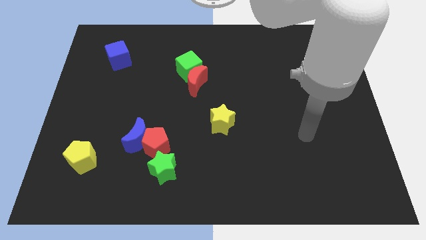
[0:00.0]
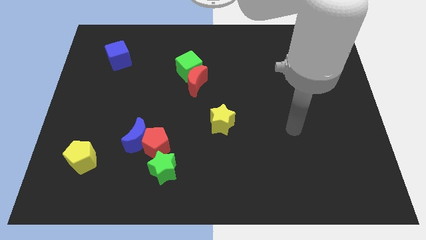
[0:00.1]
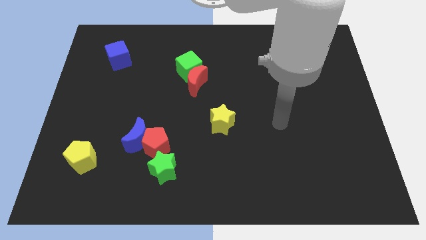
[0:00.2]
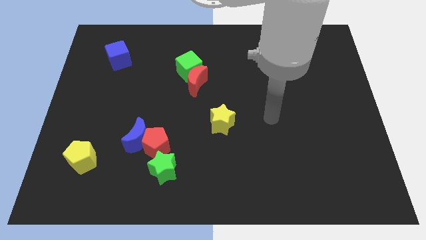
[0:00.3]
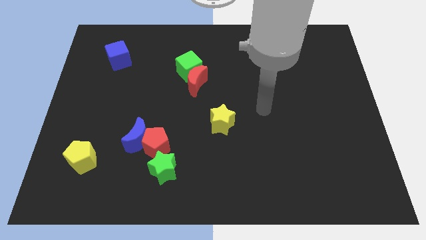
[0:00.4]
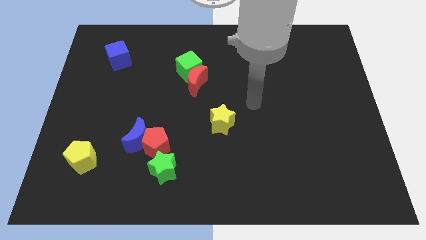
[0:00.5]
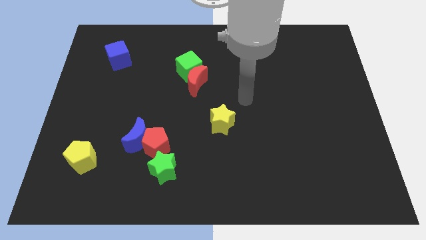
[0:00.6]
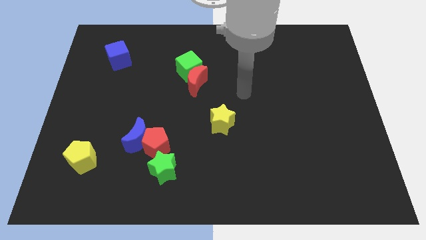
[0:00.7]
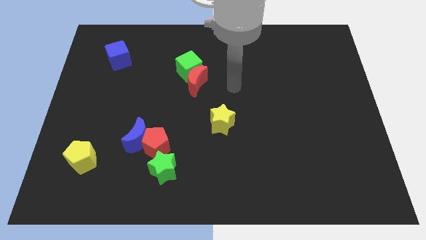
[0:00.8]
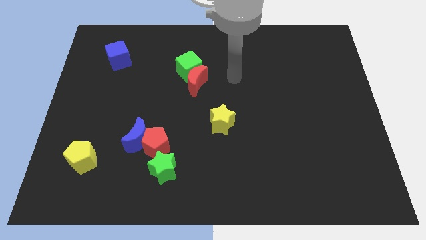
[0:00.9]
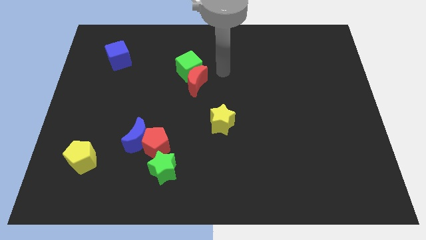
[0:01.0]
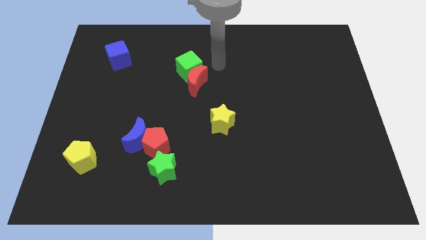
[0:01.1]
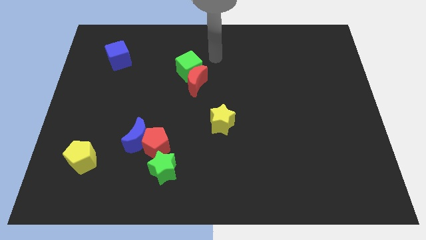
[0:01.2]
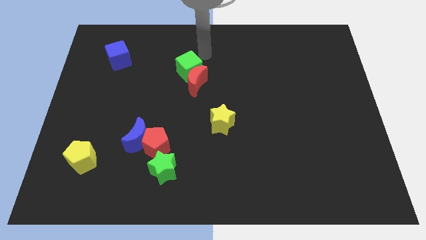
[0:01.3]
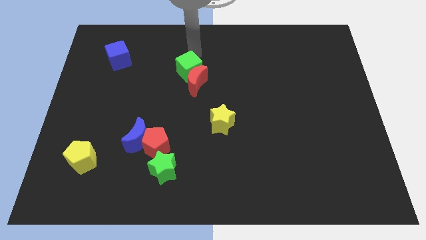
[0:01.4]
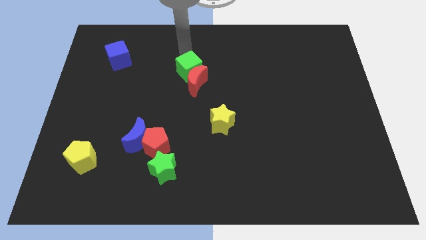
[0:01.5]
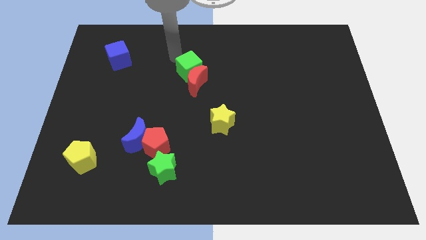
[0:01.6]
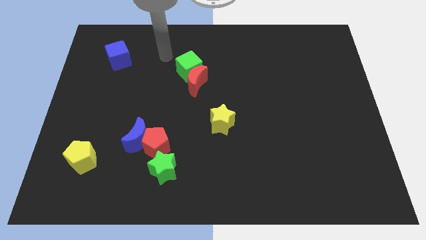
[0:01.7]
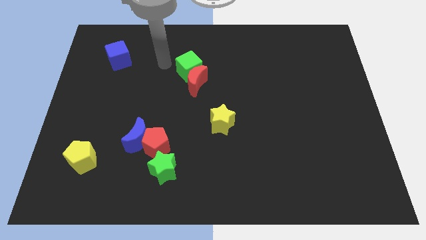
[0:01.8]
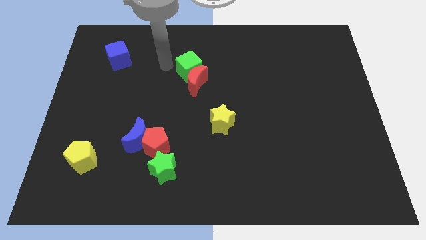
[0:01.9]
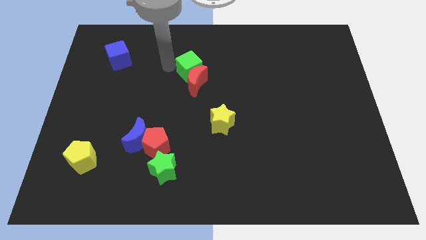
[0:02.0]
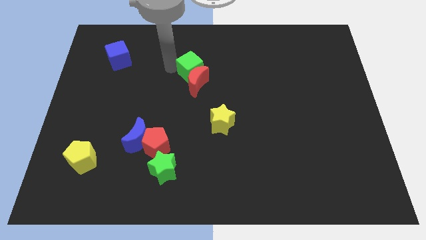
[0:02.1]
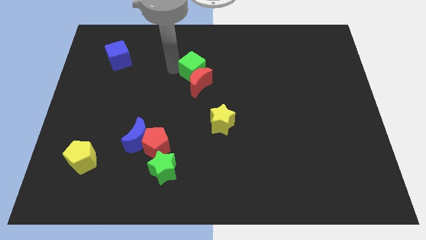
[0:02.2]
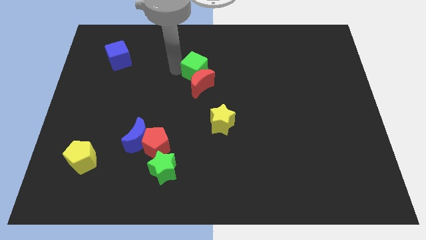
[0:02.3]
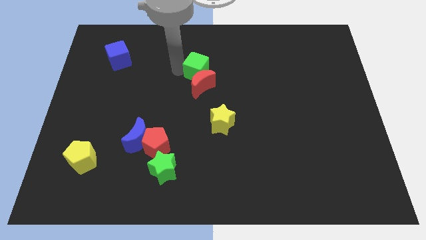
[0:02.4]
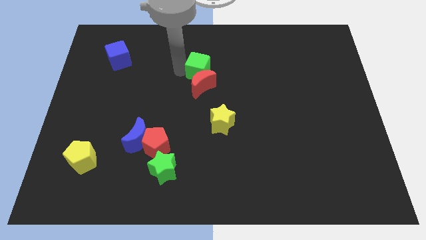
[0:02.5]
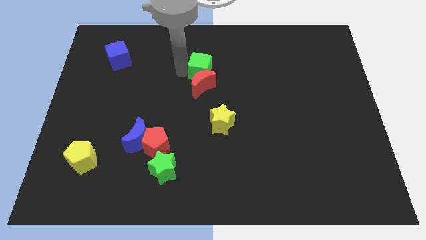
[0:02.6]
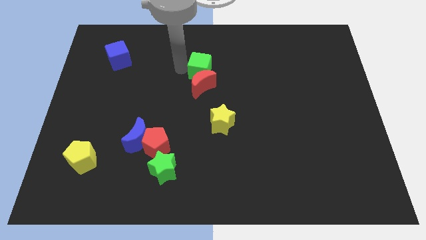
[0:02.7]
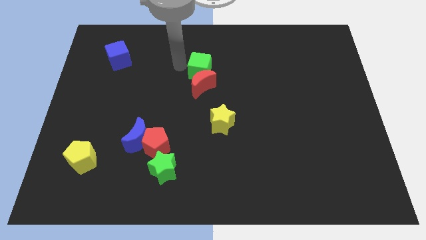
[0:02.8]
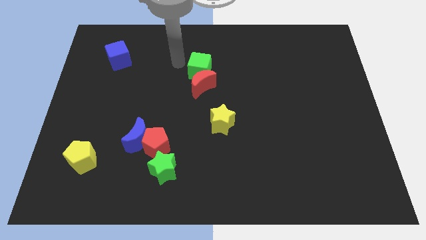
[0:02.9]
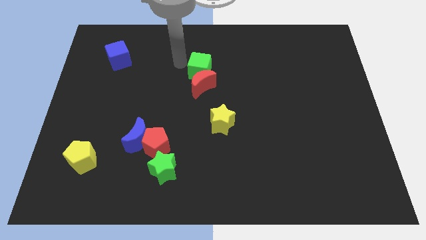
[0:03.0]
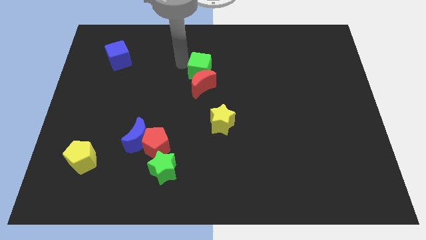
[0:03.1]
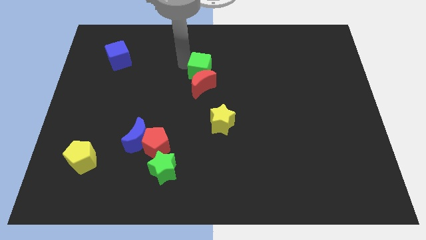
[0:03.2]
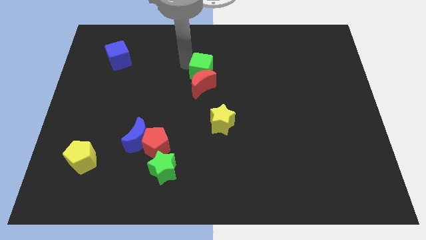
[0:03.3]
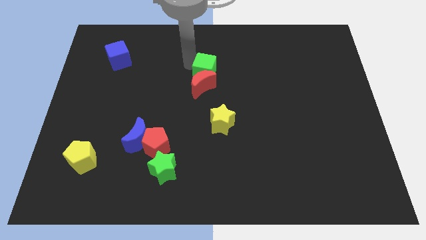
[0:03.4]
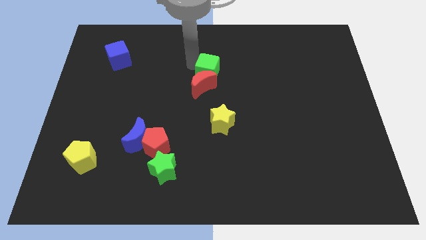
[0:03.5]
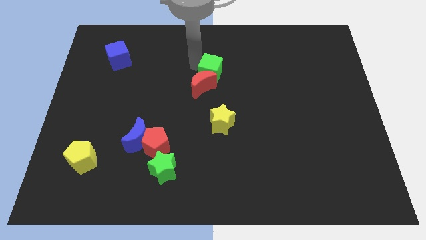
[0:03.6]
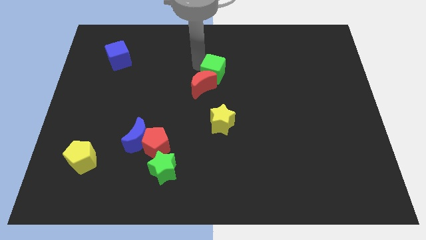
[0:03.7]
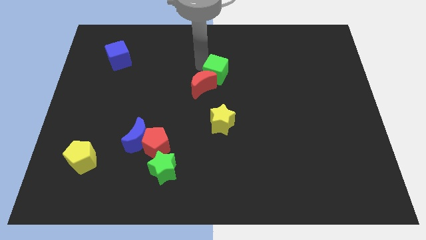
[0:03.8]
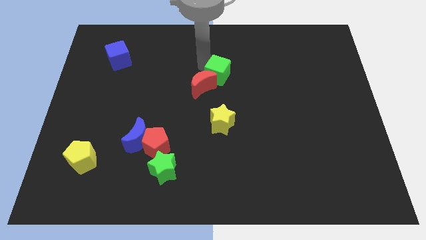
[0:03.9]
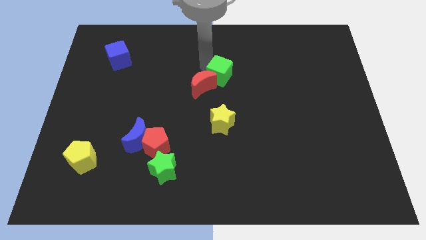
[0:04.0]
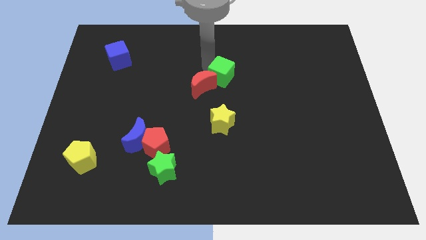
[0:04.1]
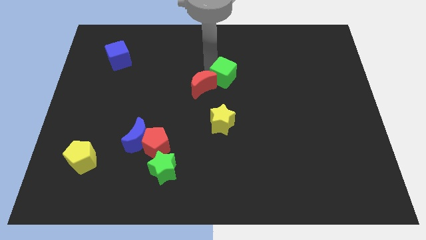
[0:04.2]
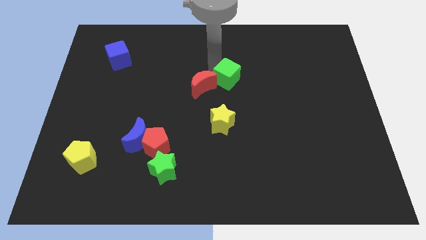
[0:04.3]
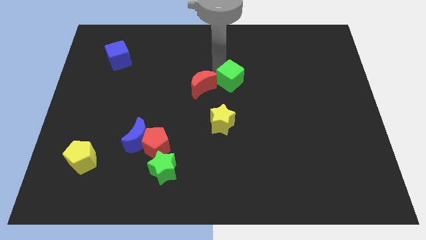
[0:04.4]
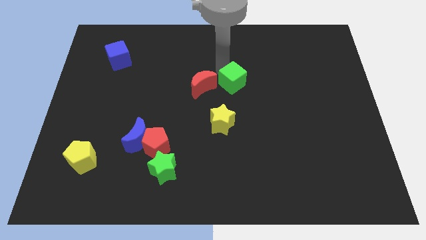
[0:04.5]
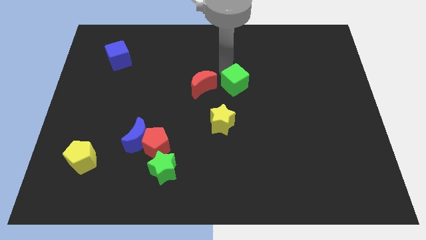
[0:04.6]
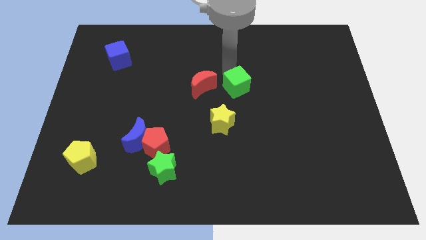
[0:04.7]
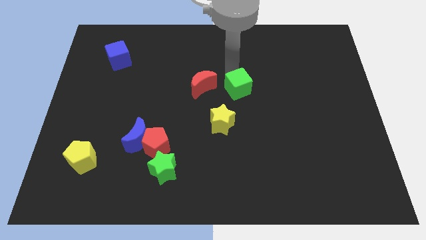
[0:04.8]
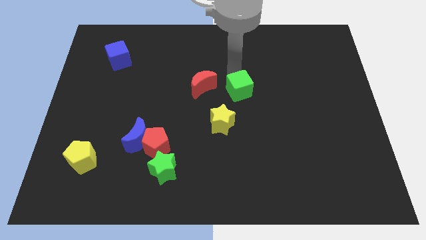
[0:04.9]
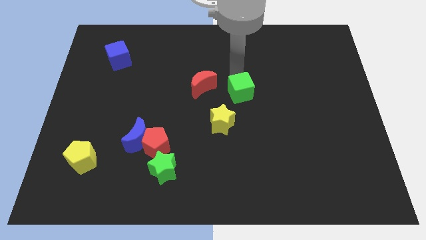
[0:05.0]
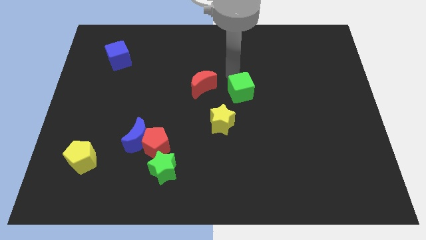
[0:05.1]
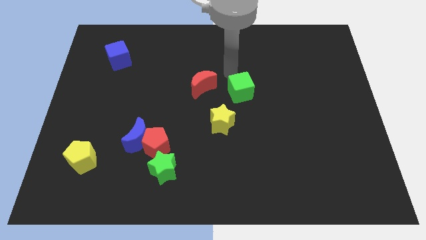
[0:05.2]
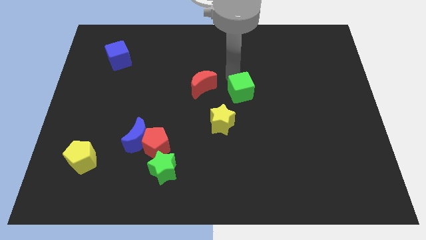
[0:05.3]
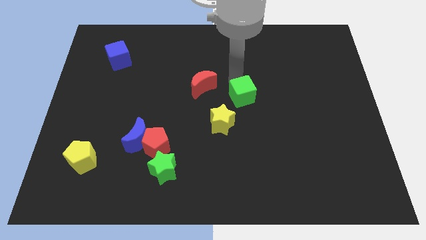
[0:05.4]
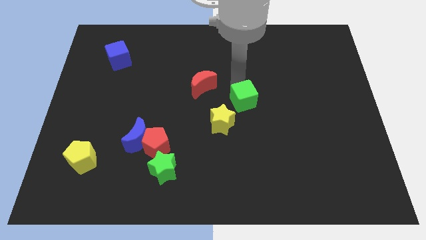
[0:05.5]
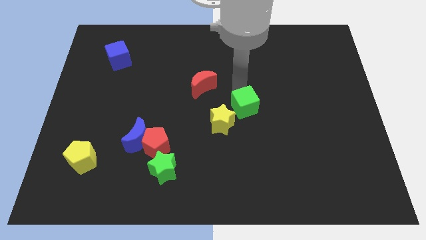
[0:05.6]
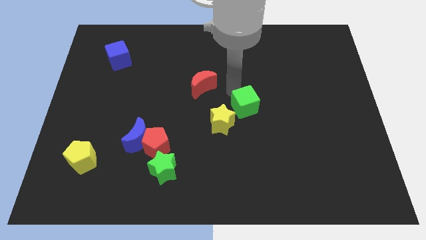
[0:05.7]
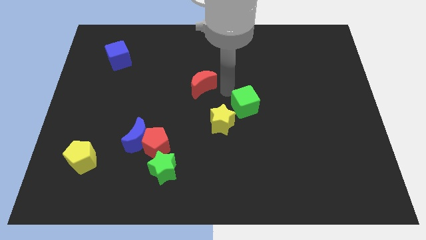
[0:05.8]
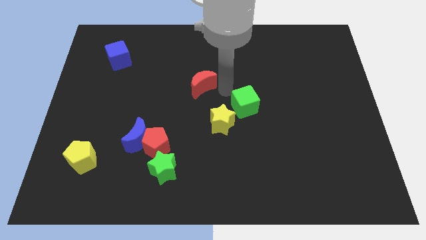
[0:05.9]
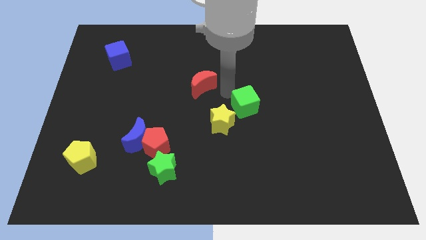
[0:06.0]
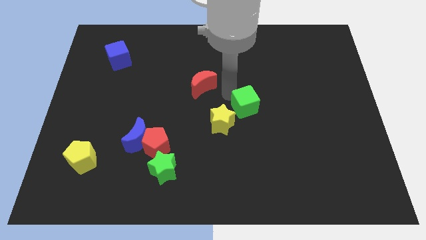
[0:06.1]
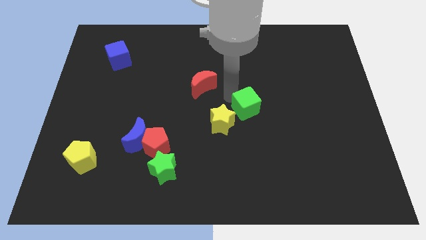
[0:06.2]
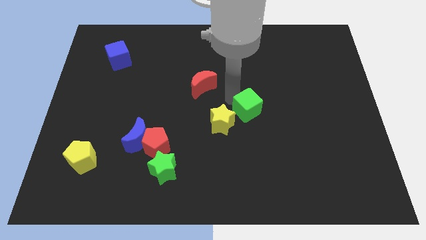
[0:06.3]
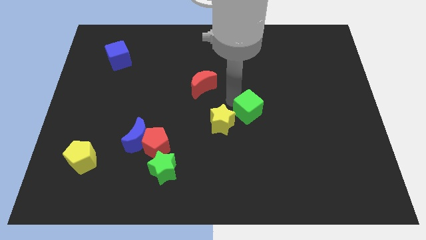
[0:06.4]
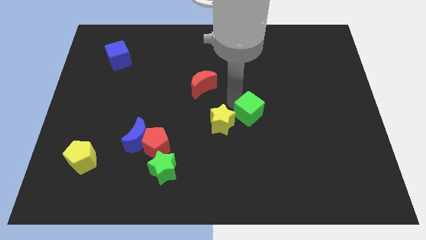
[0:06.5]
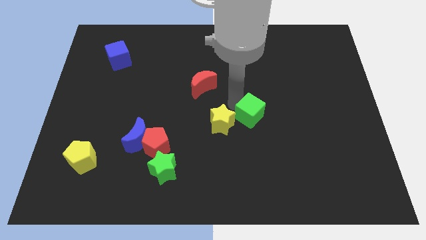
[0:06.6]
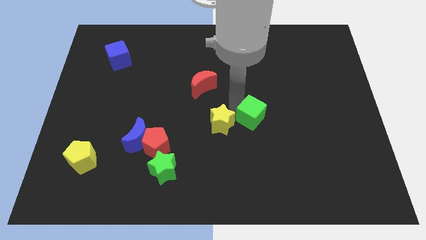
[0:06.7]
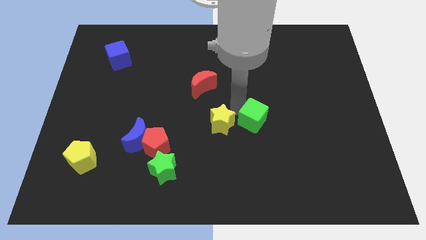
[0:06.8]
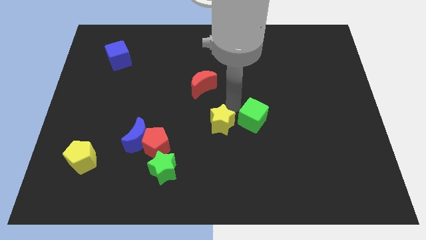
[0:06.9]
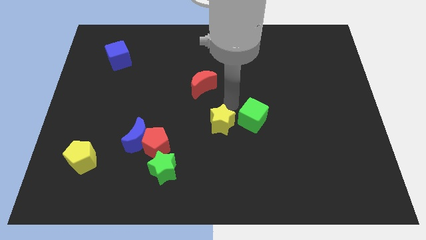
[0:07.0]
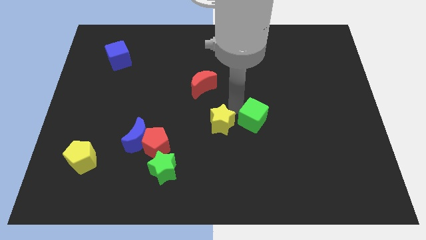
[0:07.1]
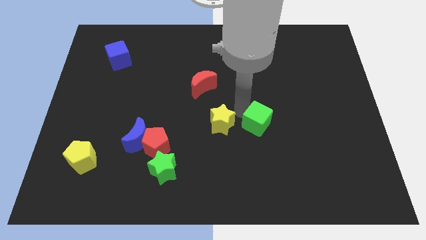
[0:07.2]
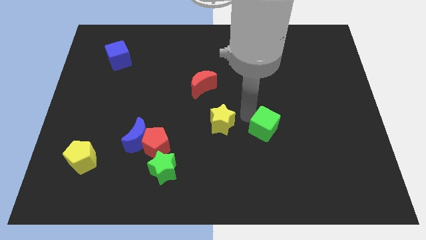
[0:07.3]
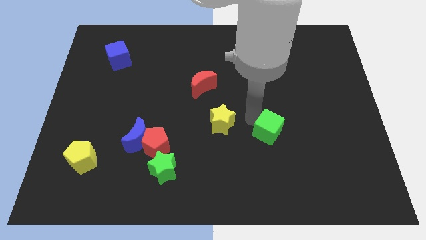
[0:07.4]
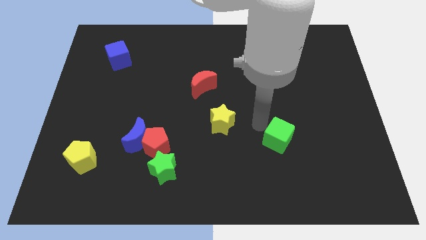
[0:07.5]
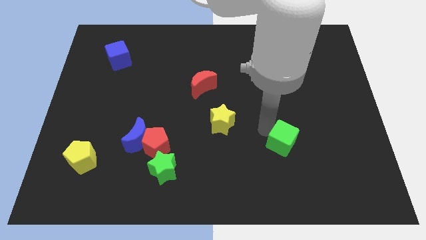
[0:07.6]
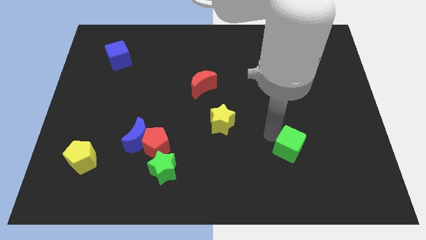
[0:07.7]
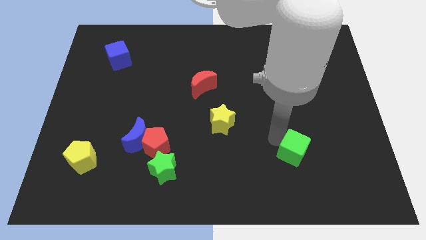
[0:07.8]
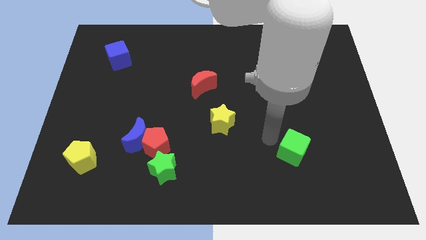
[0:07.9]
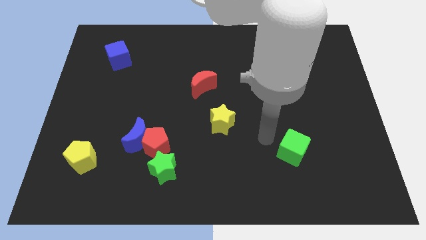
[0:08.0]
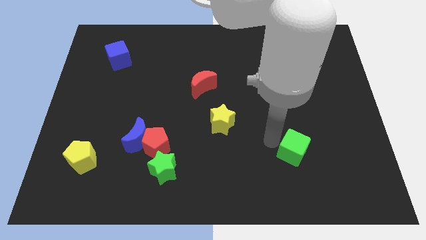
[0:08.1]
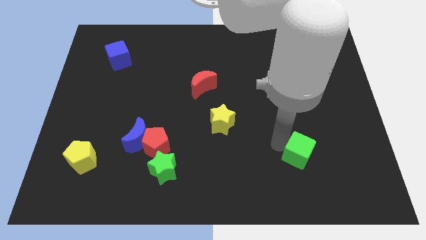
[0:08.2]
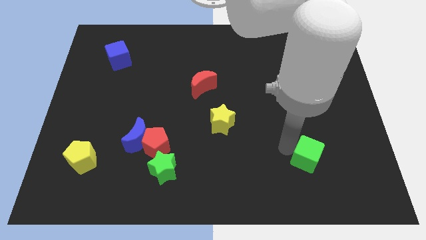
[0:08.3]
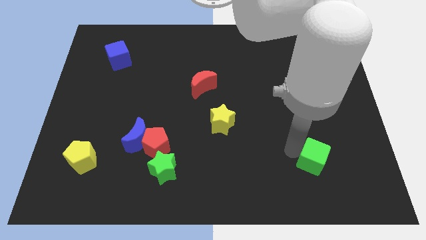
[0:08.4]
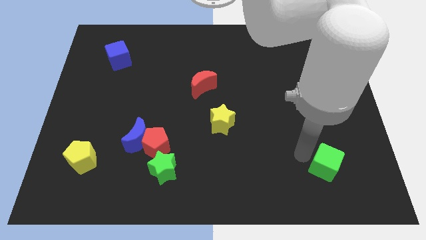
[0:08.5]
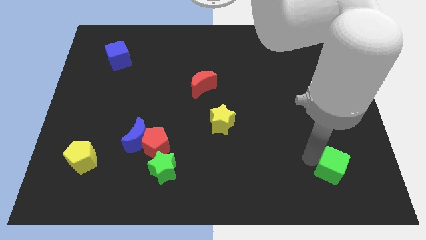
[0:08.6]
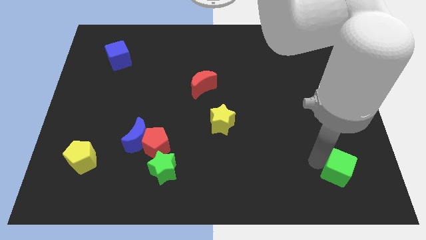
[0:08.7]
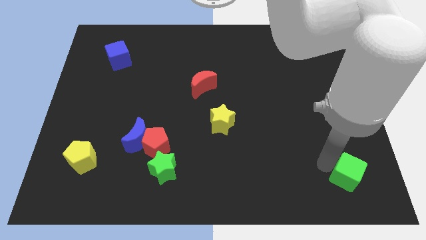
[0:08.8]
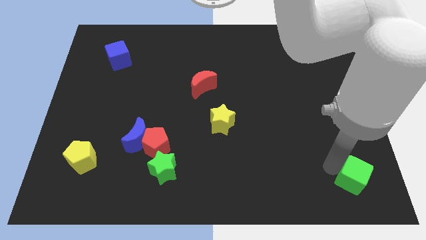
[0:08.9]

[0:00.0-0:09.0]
move the green cube to the bottom right corner
